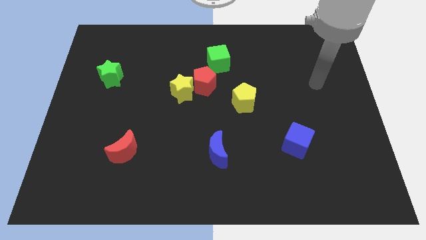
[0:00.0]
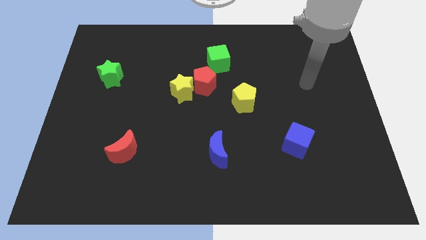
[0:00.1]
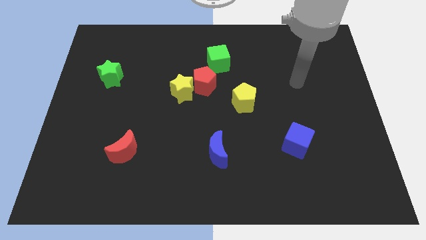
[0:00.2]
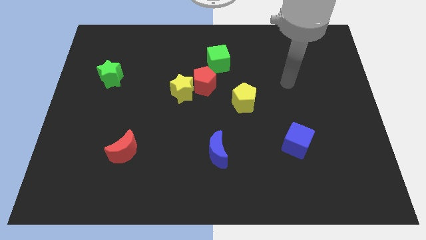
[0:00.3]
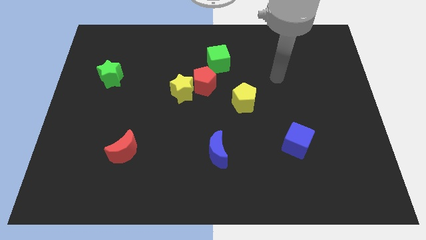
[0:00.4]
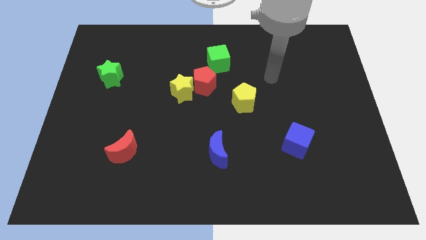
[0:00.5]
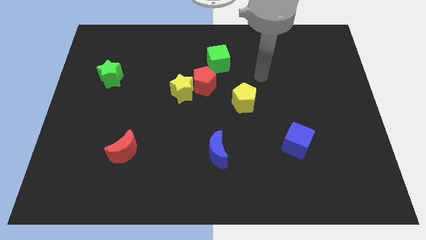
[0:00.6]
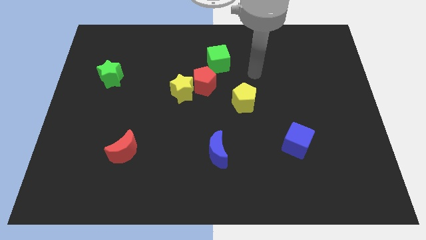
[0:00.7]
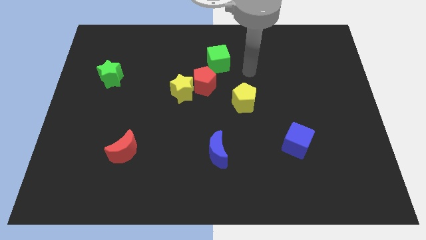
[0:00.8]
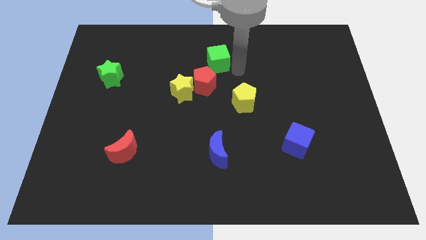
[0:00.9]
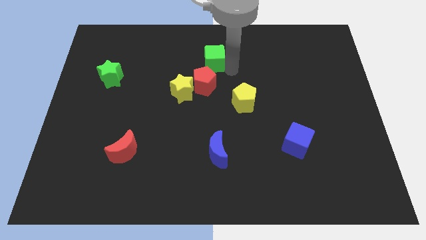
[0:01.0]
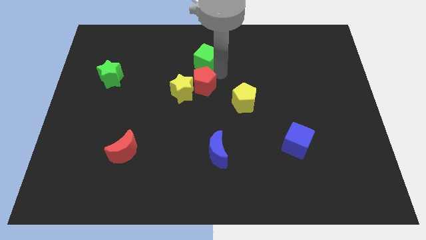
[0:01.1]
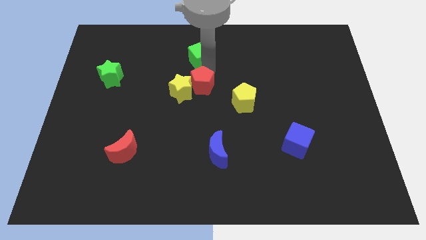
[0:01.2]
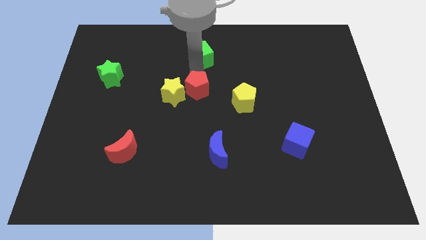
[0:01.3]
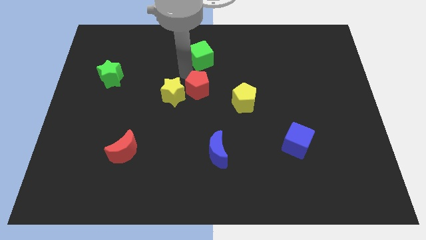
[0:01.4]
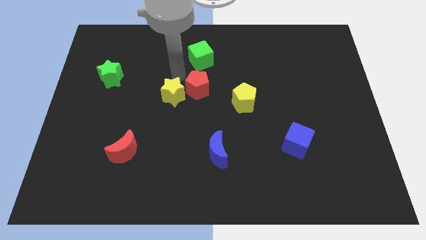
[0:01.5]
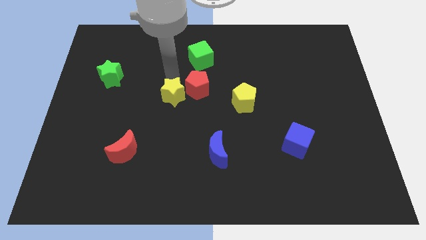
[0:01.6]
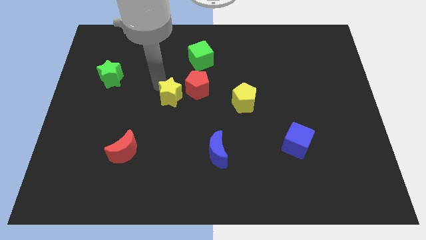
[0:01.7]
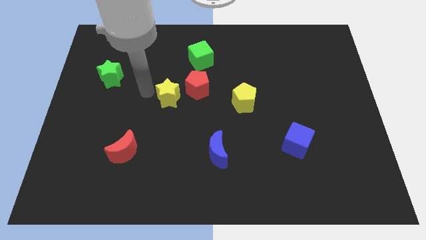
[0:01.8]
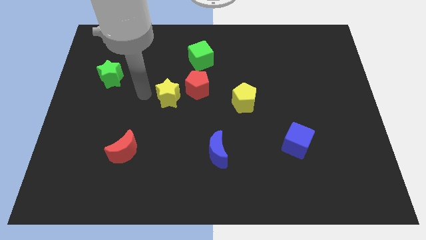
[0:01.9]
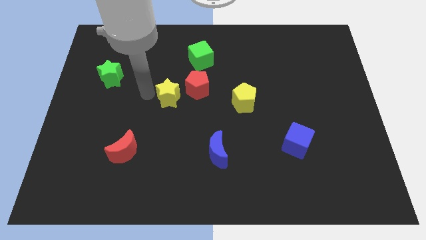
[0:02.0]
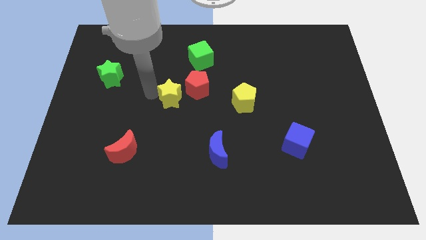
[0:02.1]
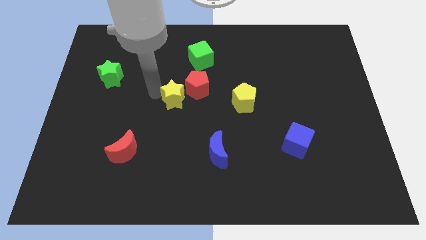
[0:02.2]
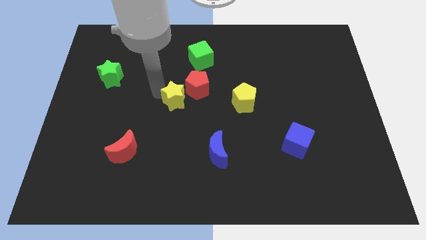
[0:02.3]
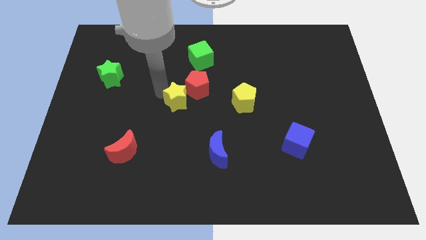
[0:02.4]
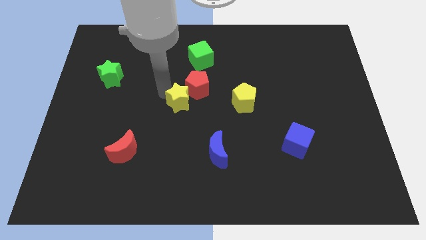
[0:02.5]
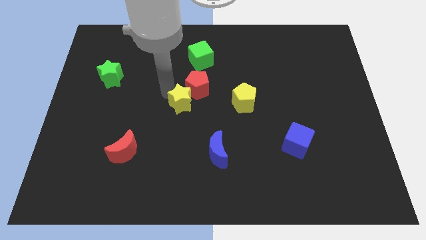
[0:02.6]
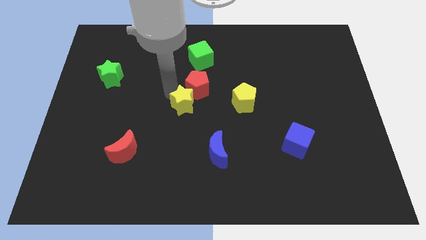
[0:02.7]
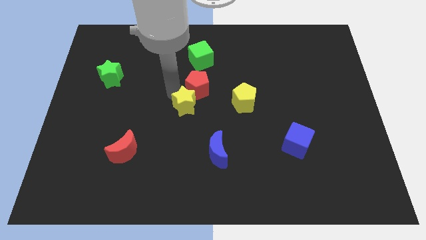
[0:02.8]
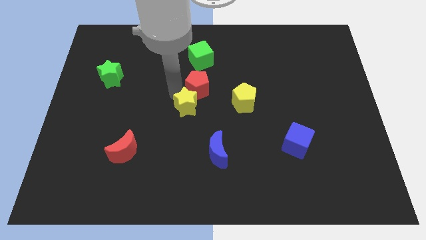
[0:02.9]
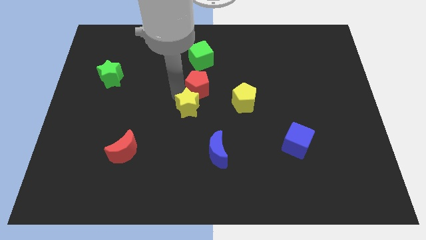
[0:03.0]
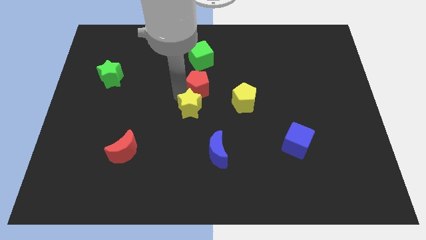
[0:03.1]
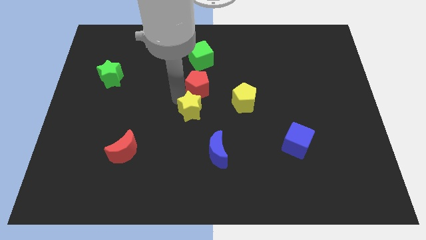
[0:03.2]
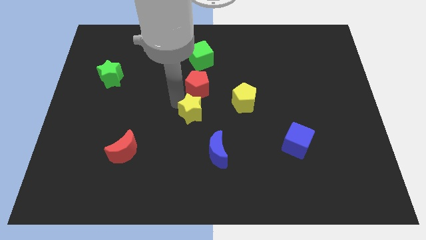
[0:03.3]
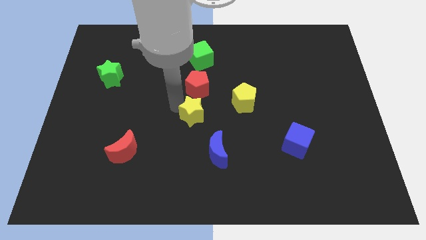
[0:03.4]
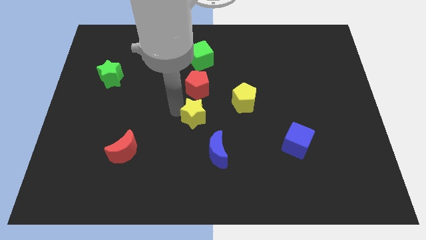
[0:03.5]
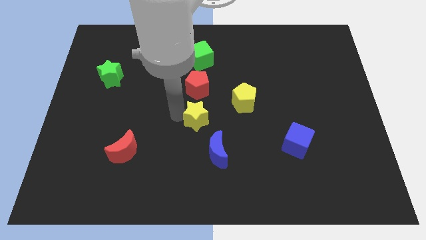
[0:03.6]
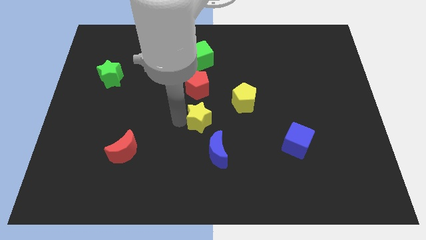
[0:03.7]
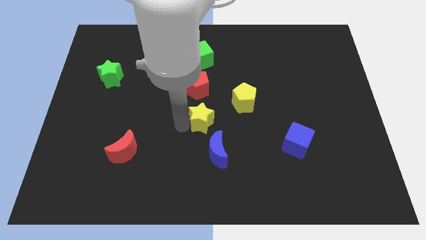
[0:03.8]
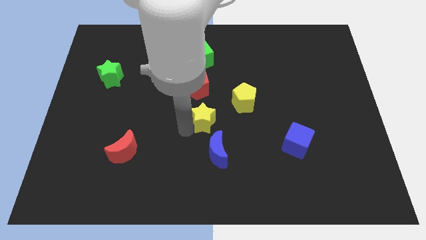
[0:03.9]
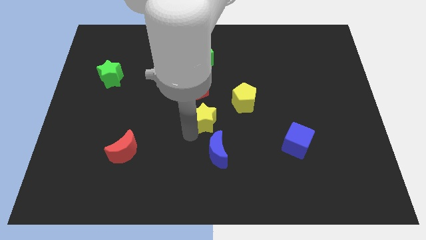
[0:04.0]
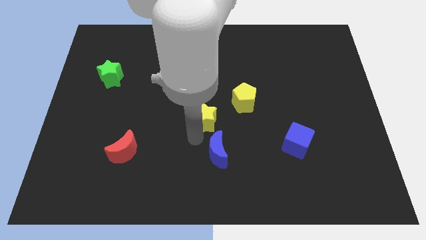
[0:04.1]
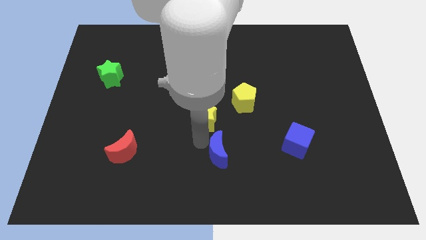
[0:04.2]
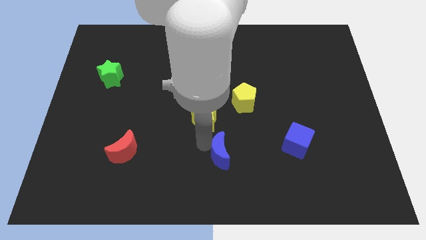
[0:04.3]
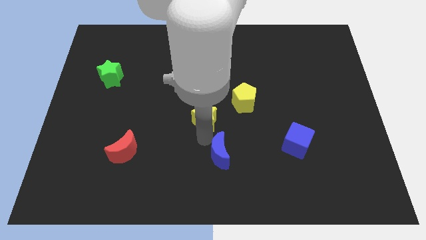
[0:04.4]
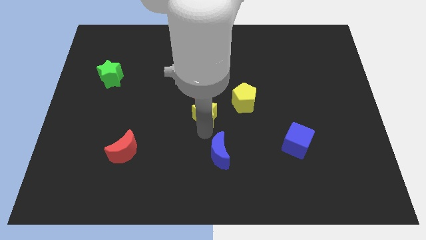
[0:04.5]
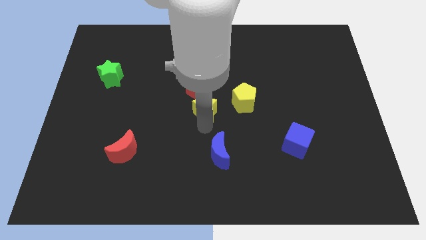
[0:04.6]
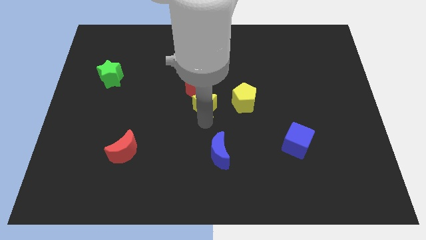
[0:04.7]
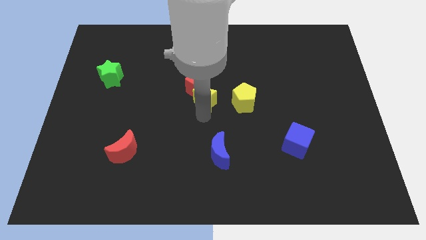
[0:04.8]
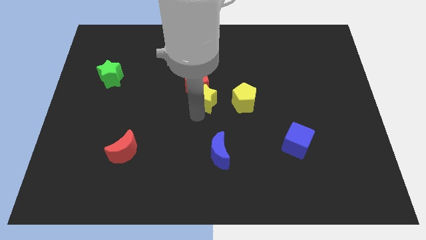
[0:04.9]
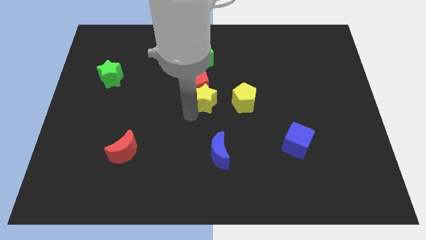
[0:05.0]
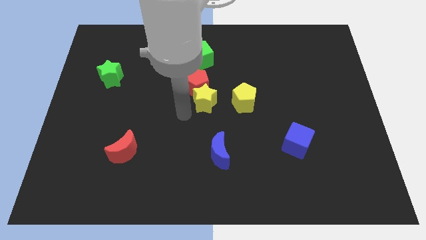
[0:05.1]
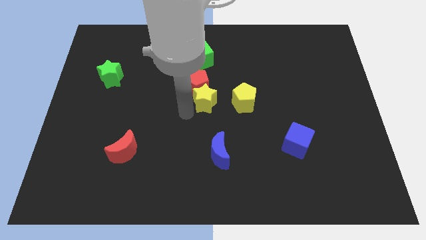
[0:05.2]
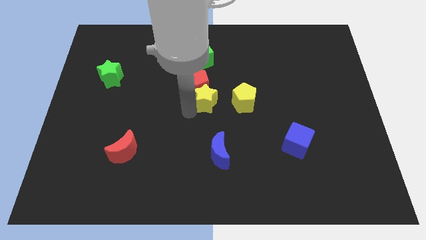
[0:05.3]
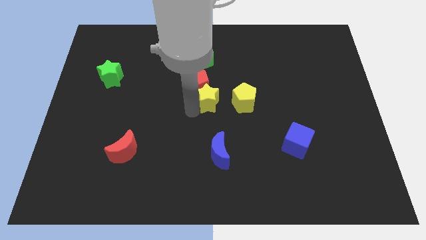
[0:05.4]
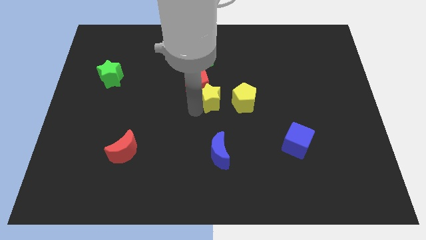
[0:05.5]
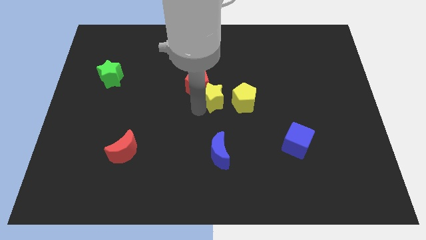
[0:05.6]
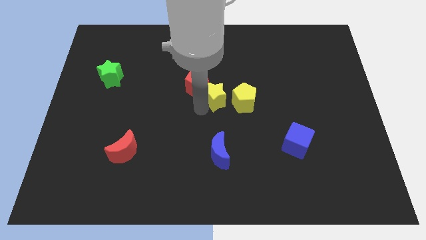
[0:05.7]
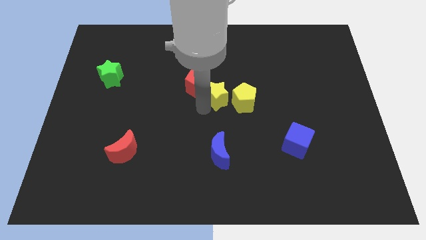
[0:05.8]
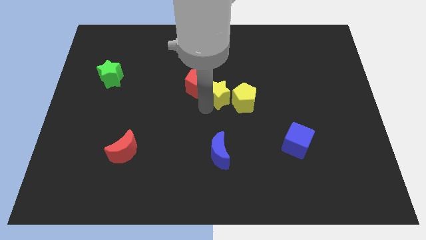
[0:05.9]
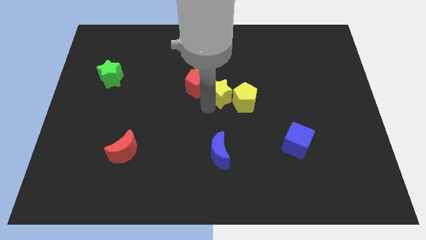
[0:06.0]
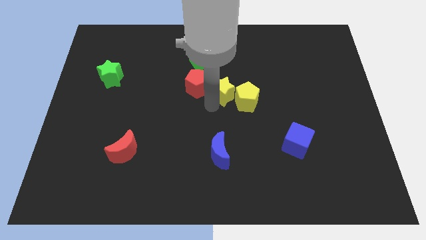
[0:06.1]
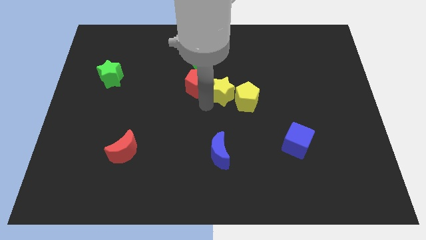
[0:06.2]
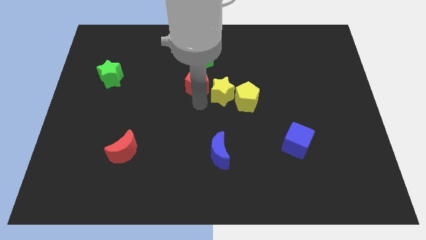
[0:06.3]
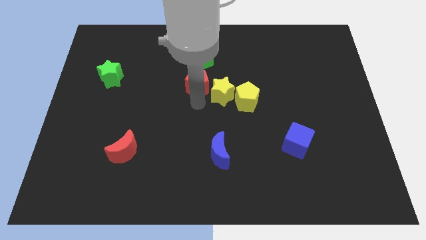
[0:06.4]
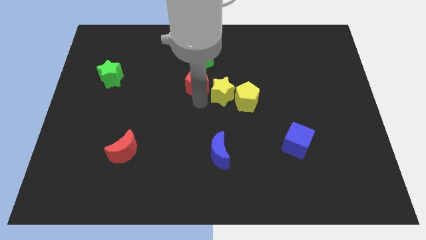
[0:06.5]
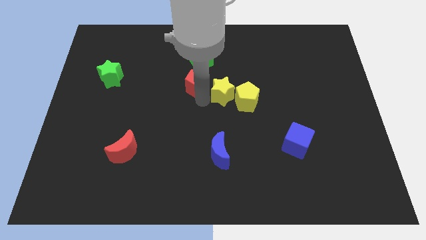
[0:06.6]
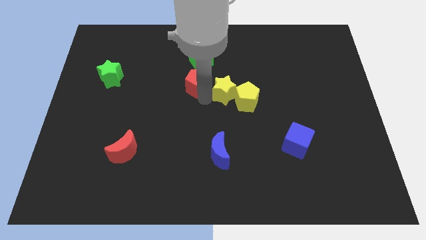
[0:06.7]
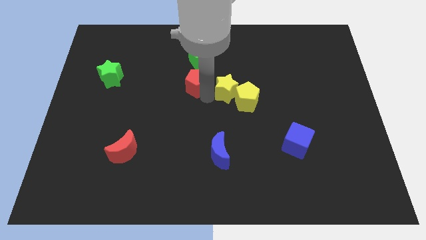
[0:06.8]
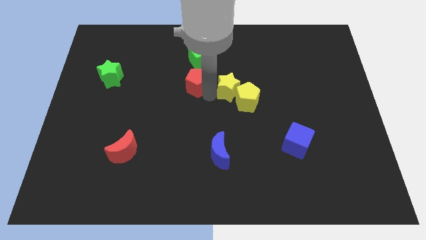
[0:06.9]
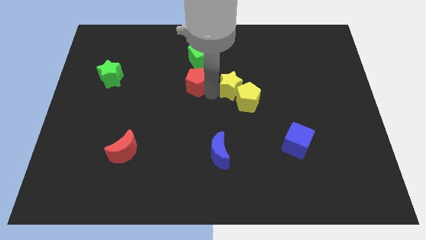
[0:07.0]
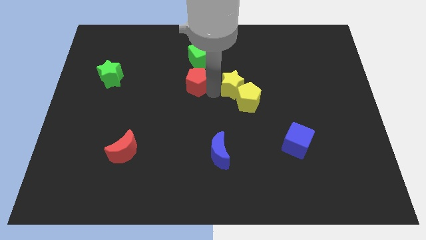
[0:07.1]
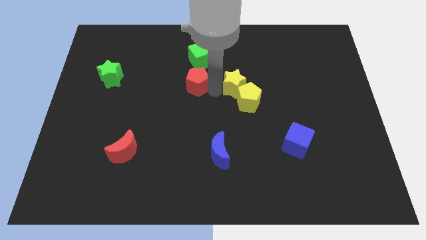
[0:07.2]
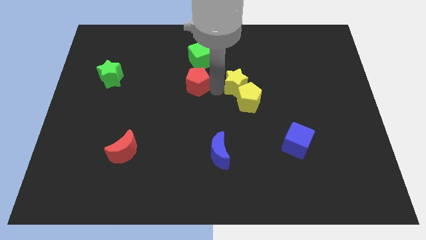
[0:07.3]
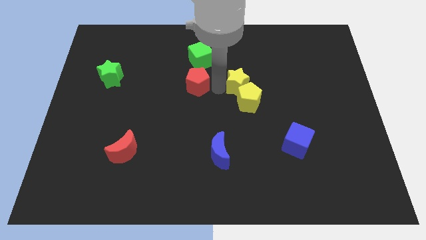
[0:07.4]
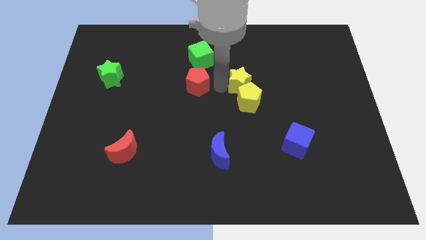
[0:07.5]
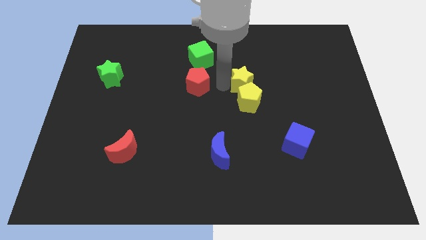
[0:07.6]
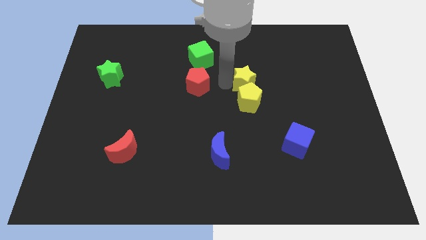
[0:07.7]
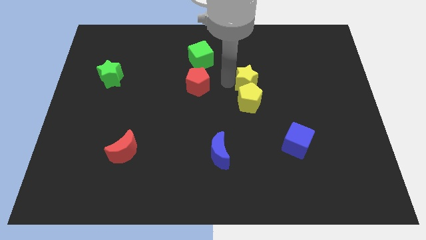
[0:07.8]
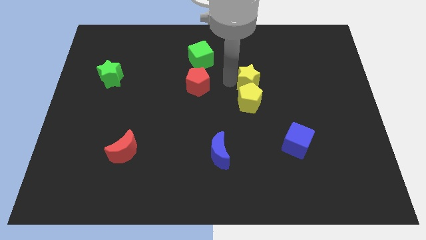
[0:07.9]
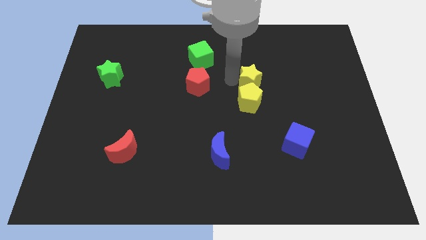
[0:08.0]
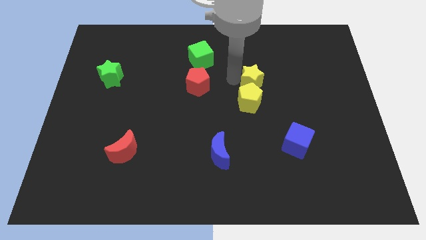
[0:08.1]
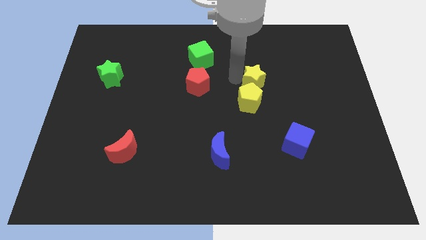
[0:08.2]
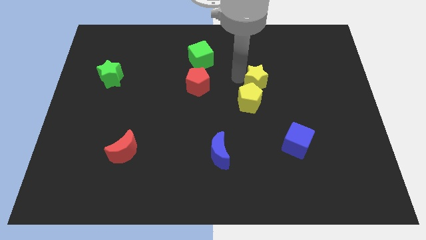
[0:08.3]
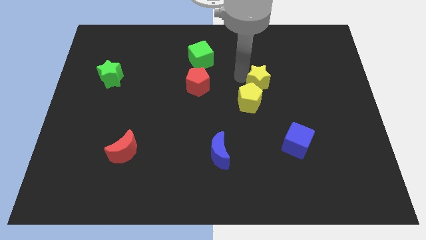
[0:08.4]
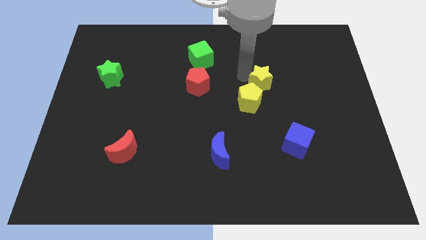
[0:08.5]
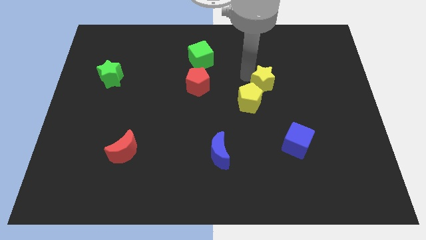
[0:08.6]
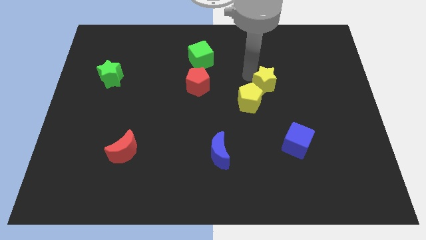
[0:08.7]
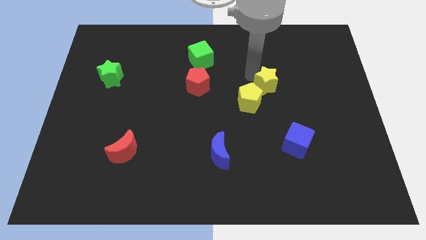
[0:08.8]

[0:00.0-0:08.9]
move the yellow star right
